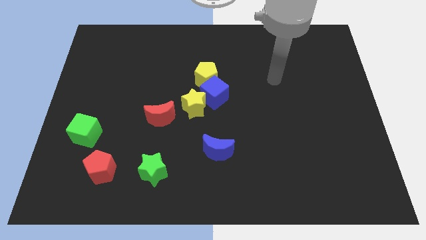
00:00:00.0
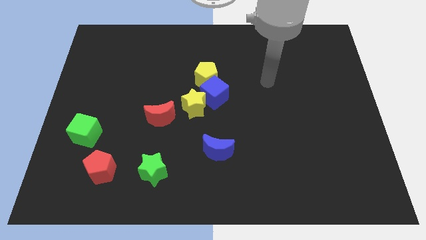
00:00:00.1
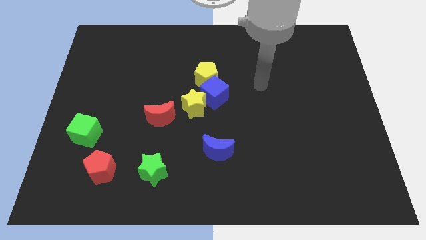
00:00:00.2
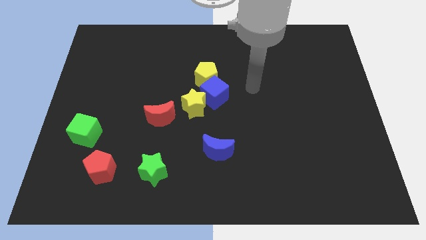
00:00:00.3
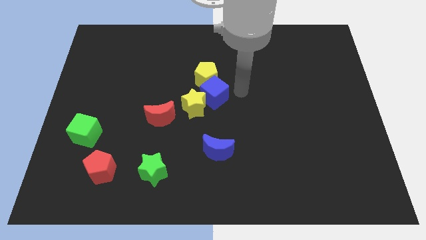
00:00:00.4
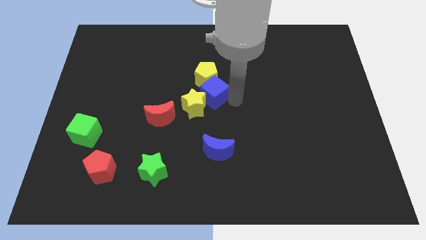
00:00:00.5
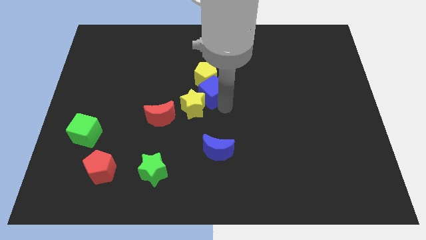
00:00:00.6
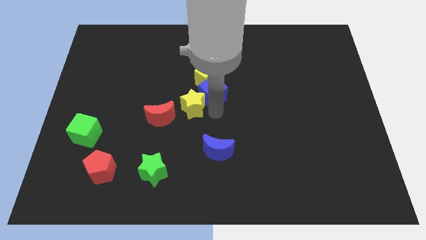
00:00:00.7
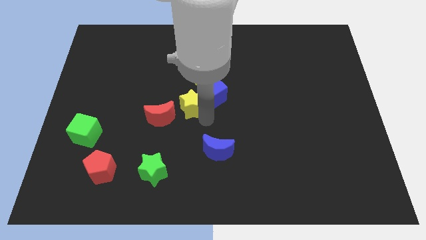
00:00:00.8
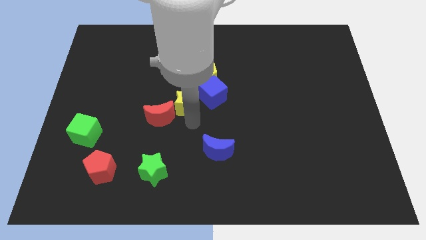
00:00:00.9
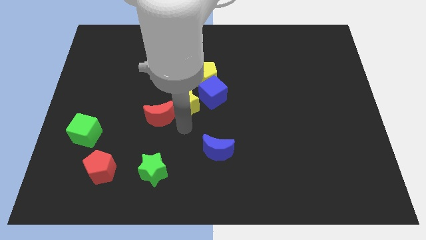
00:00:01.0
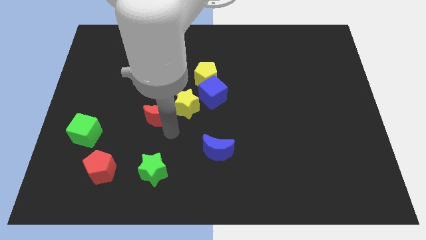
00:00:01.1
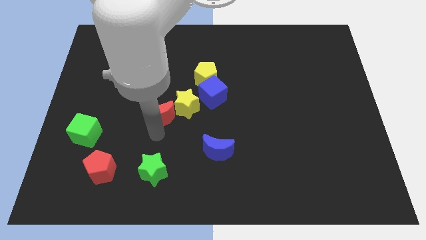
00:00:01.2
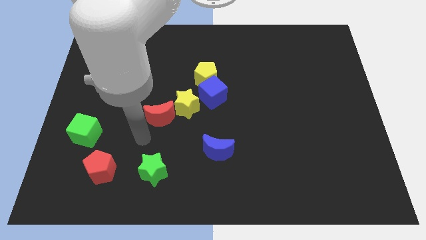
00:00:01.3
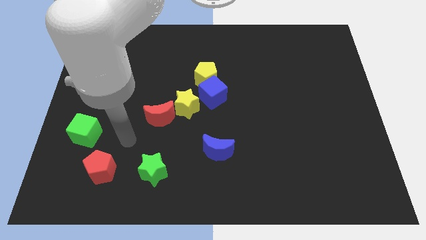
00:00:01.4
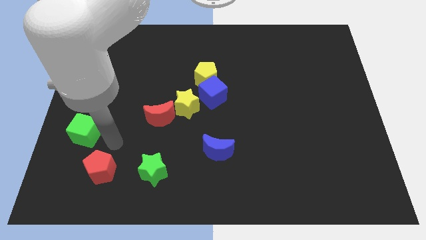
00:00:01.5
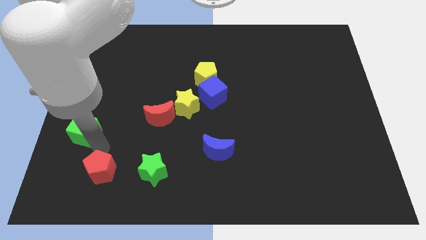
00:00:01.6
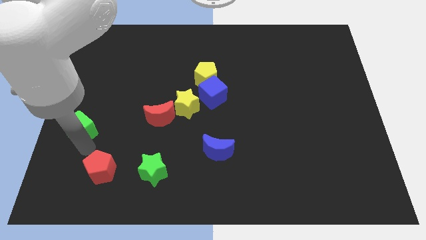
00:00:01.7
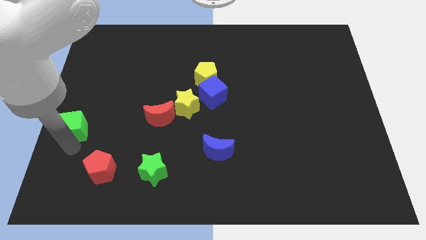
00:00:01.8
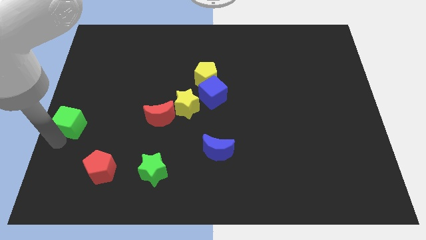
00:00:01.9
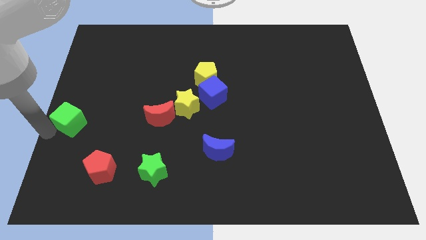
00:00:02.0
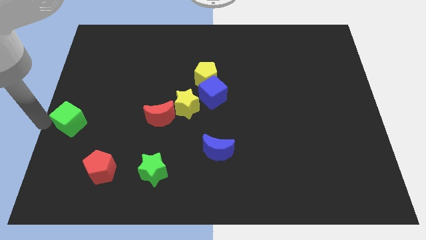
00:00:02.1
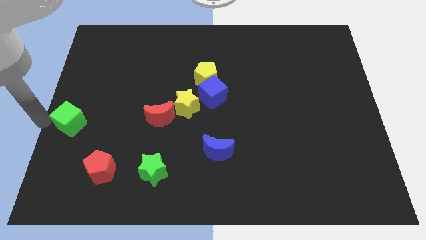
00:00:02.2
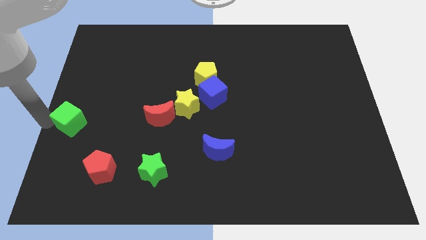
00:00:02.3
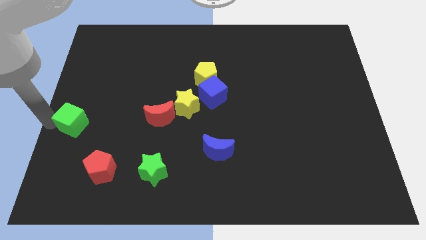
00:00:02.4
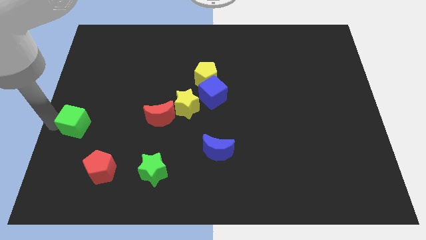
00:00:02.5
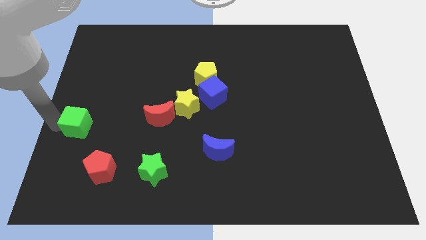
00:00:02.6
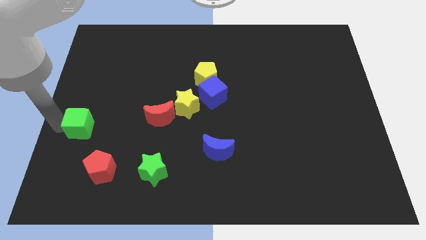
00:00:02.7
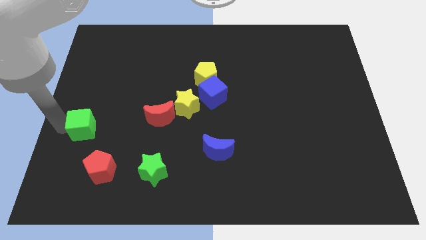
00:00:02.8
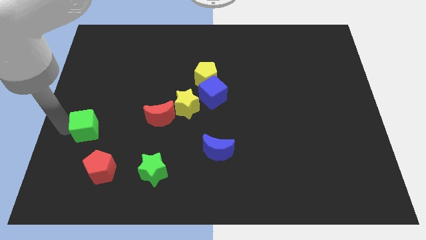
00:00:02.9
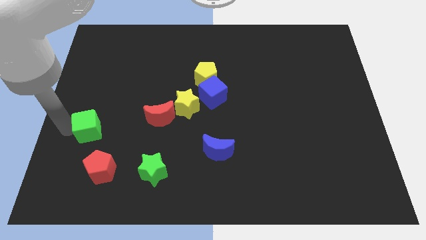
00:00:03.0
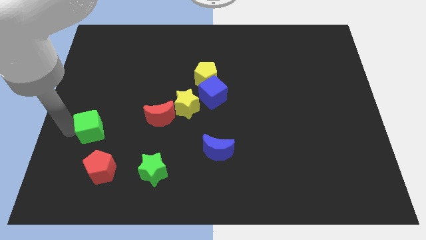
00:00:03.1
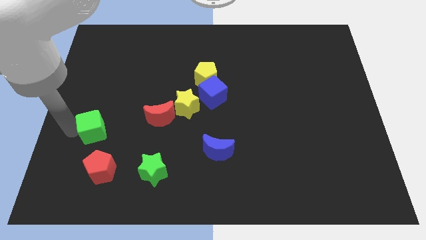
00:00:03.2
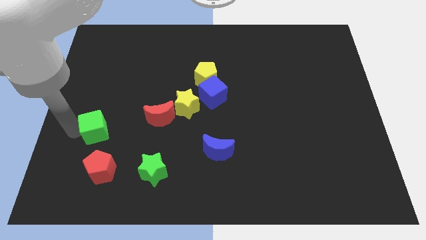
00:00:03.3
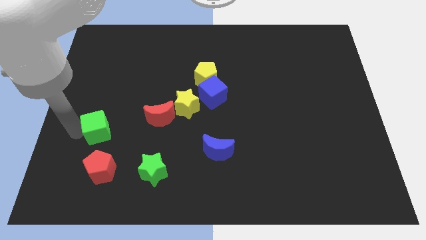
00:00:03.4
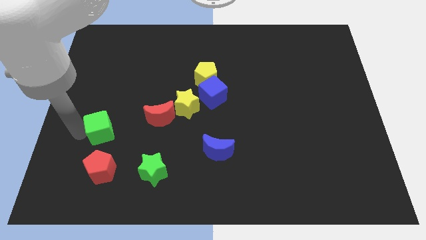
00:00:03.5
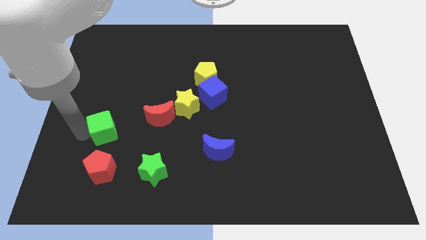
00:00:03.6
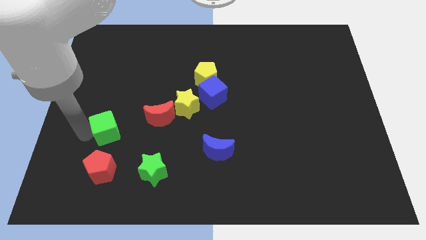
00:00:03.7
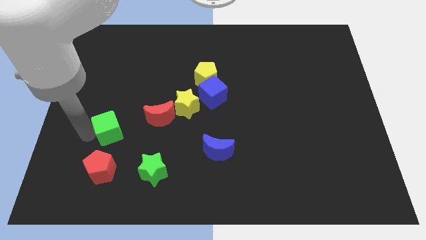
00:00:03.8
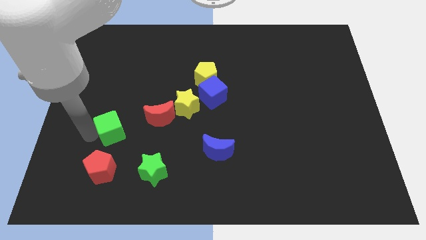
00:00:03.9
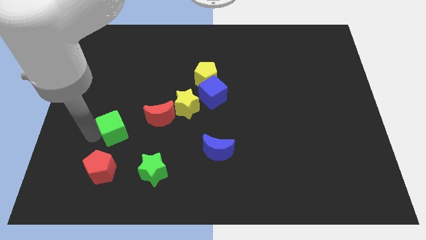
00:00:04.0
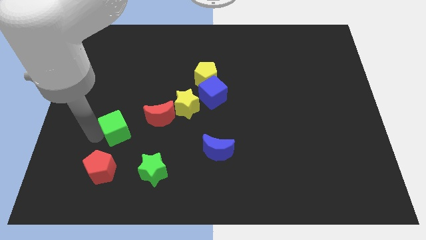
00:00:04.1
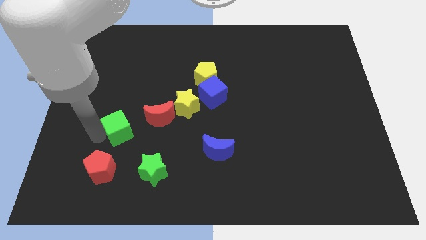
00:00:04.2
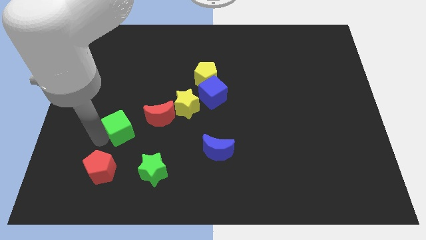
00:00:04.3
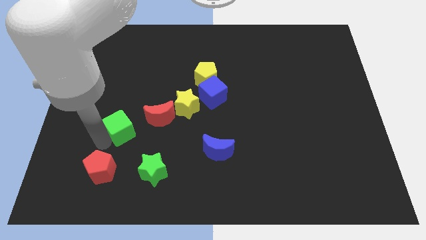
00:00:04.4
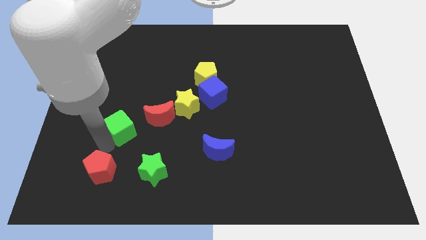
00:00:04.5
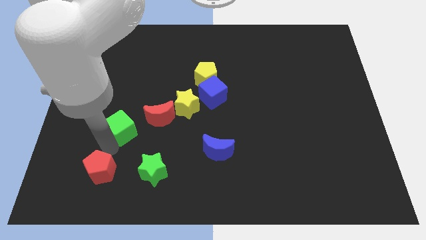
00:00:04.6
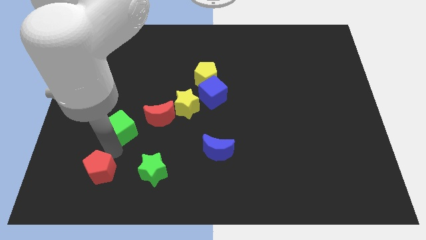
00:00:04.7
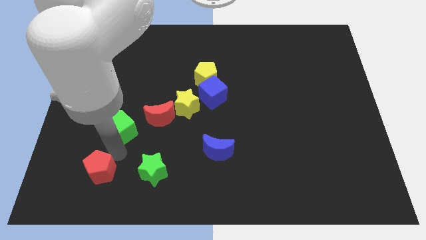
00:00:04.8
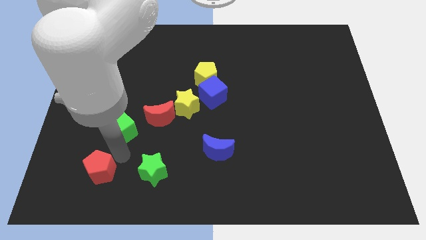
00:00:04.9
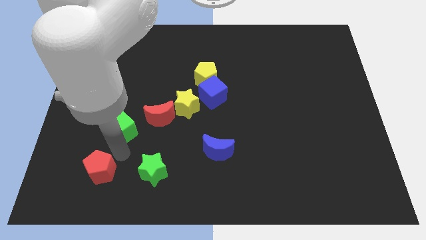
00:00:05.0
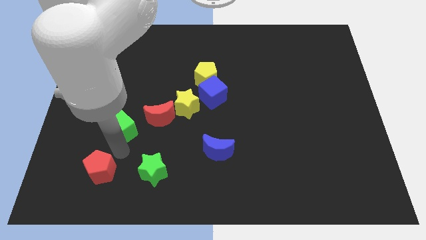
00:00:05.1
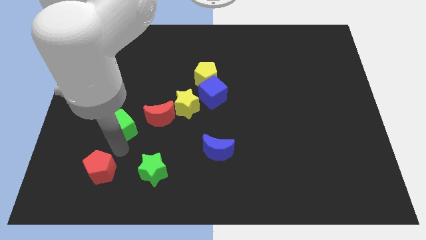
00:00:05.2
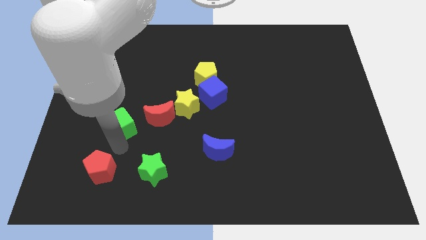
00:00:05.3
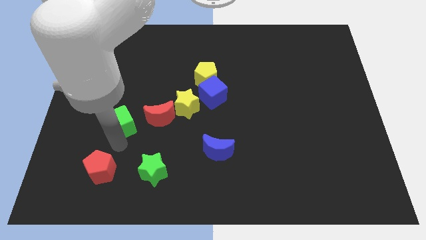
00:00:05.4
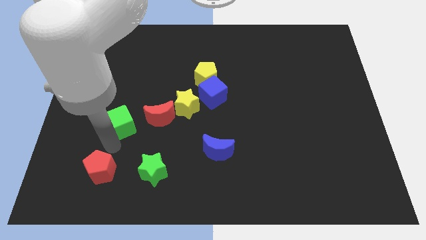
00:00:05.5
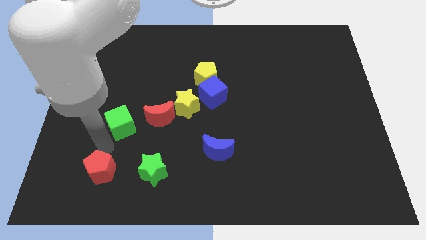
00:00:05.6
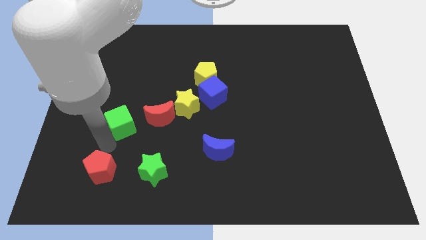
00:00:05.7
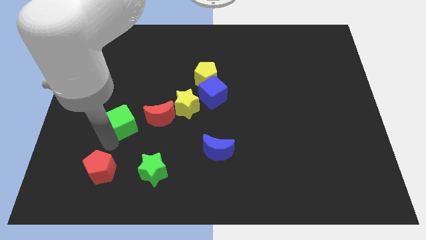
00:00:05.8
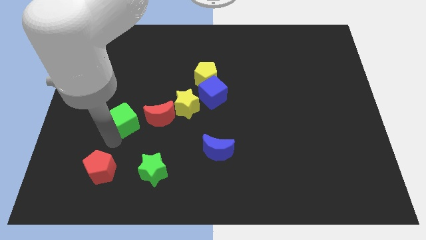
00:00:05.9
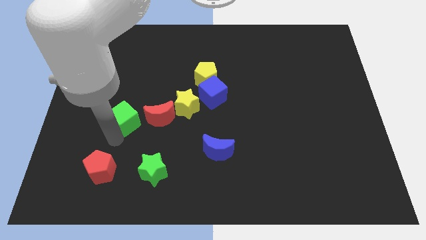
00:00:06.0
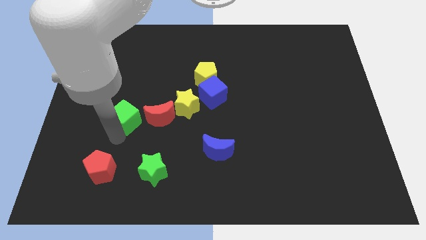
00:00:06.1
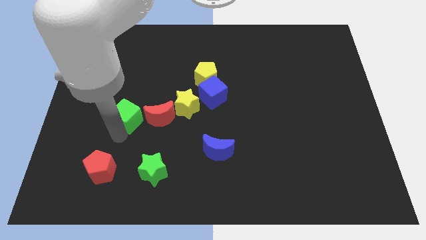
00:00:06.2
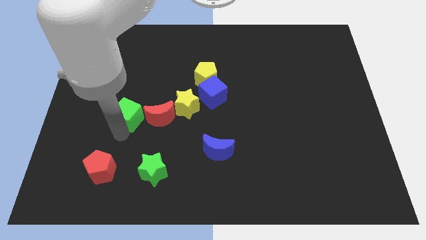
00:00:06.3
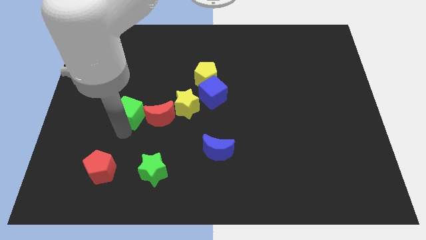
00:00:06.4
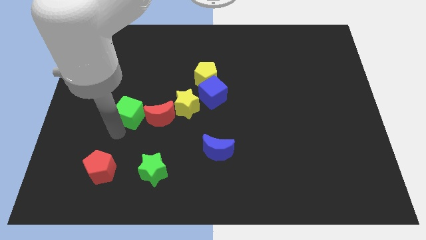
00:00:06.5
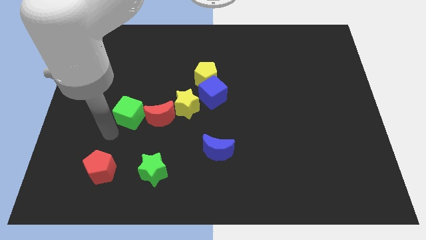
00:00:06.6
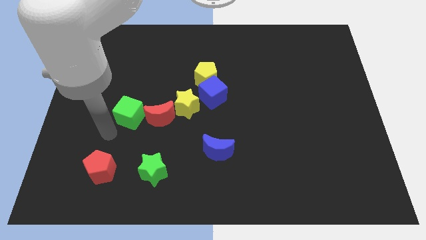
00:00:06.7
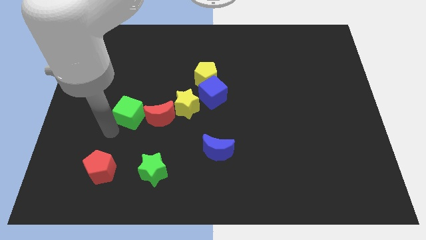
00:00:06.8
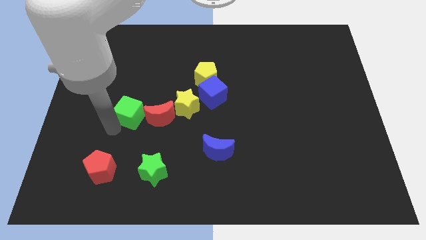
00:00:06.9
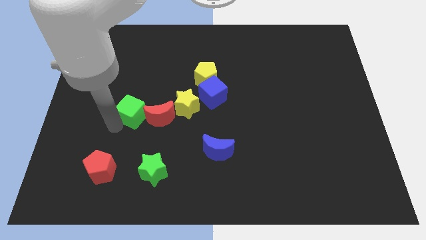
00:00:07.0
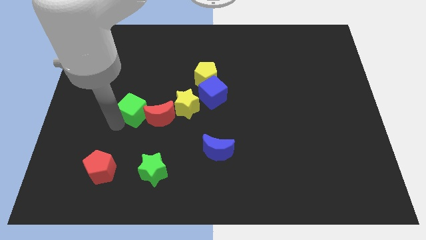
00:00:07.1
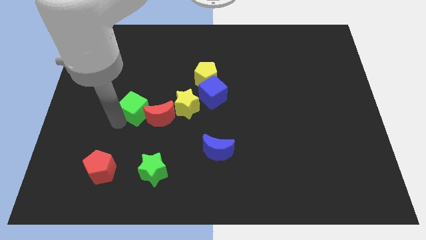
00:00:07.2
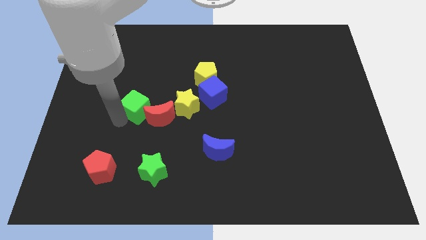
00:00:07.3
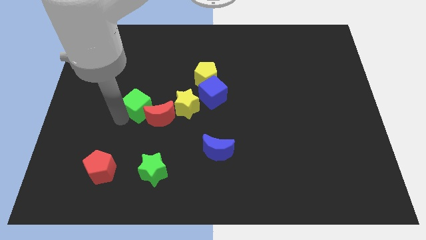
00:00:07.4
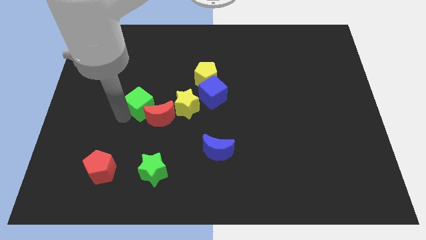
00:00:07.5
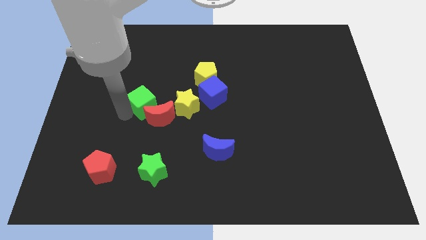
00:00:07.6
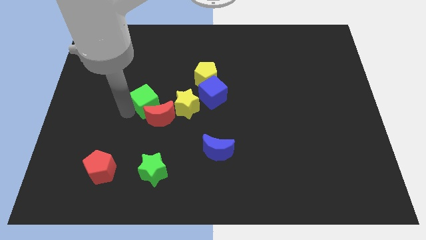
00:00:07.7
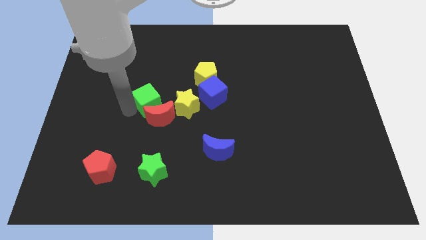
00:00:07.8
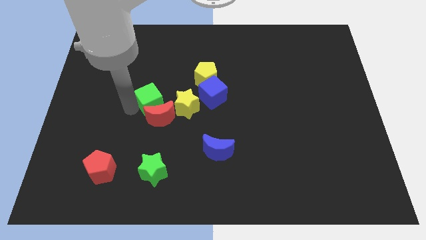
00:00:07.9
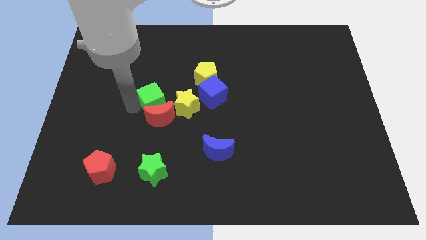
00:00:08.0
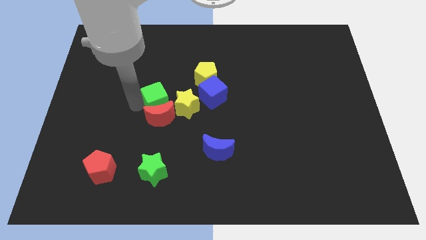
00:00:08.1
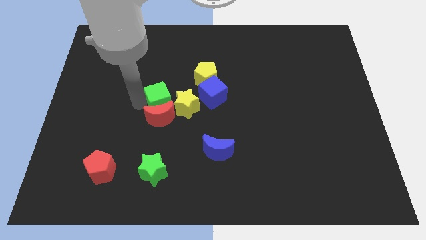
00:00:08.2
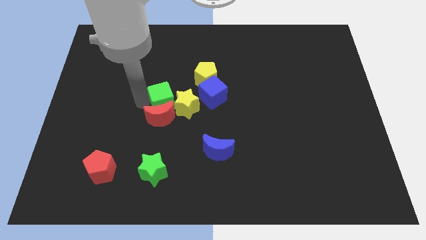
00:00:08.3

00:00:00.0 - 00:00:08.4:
push the green cube to the yellow star
